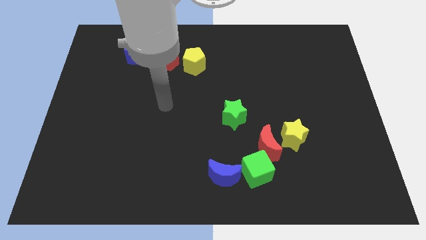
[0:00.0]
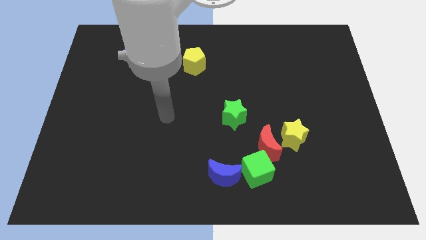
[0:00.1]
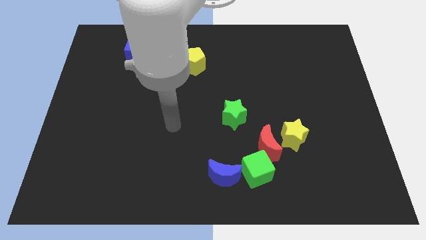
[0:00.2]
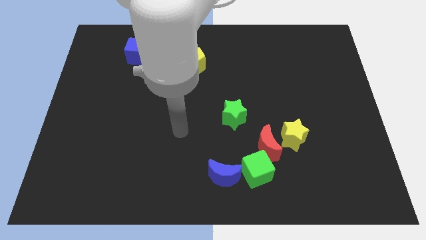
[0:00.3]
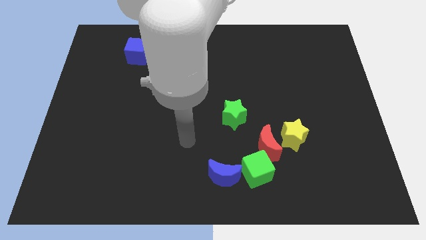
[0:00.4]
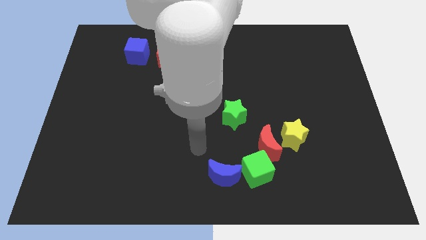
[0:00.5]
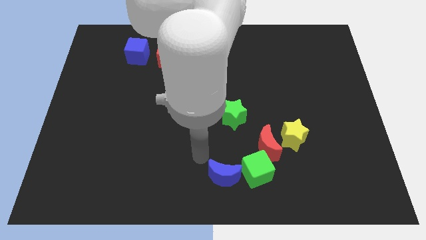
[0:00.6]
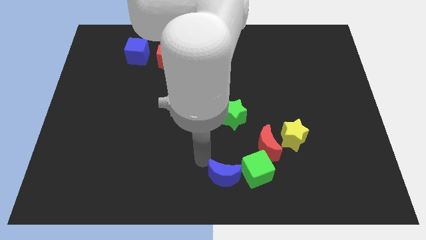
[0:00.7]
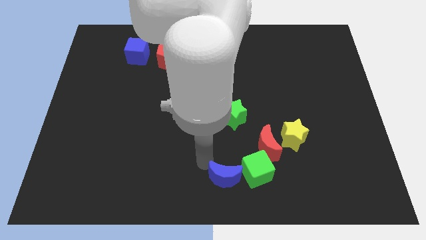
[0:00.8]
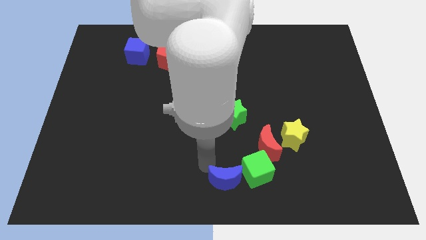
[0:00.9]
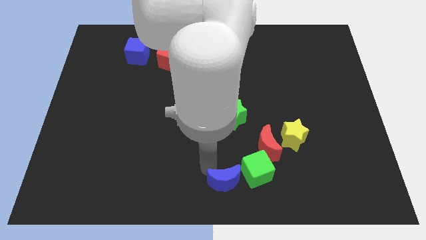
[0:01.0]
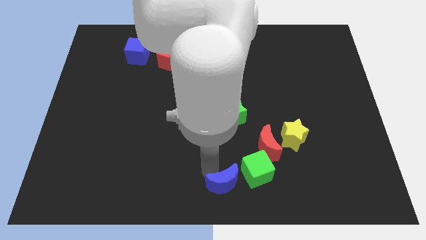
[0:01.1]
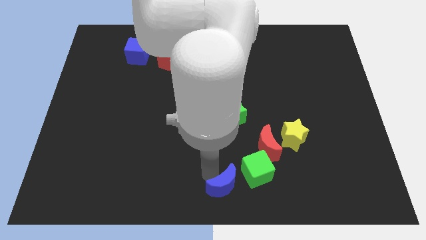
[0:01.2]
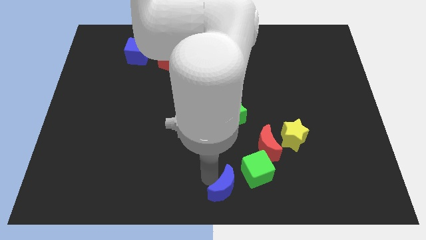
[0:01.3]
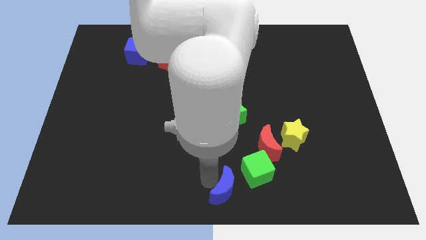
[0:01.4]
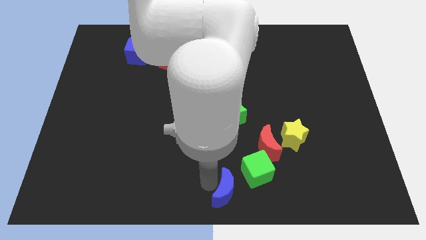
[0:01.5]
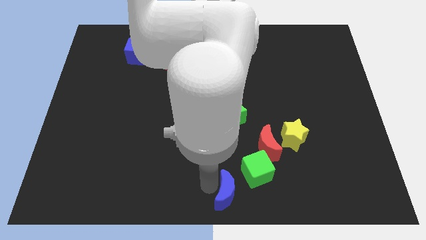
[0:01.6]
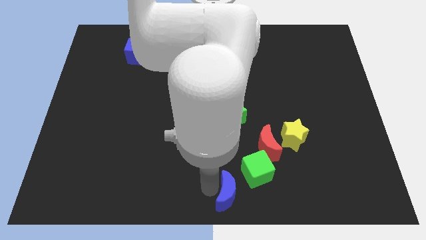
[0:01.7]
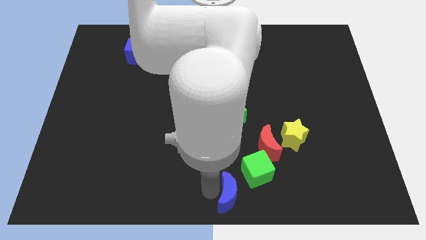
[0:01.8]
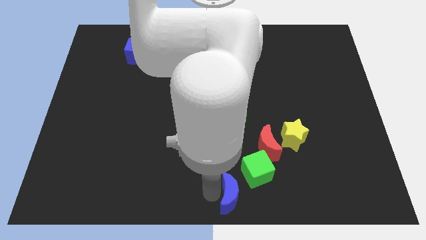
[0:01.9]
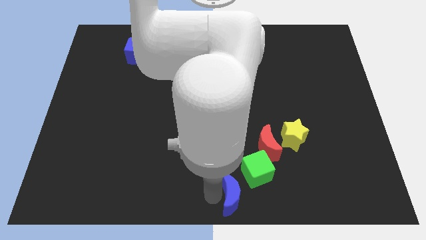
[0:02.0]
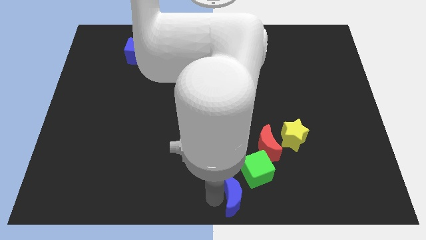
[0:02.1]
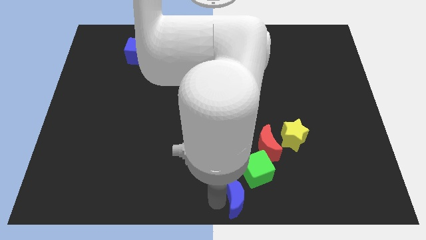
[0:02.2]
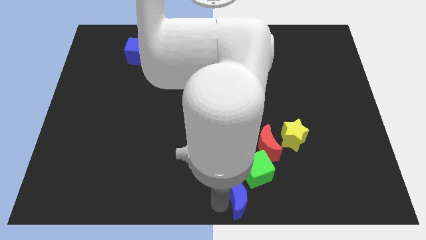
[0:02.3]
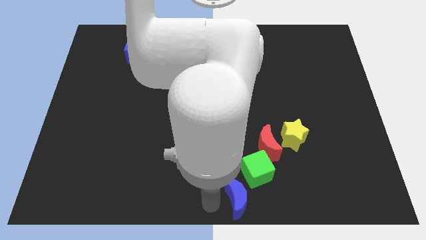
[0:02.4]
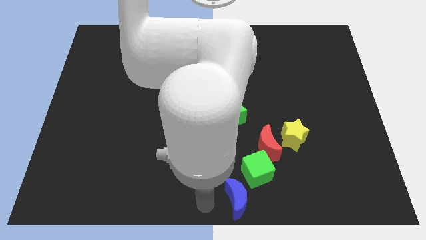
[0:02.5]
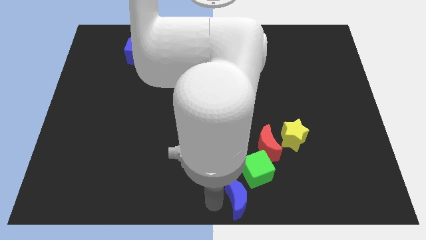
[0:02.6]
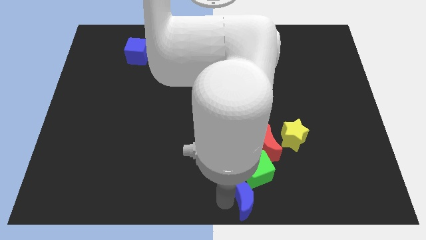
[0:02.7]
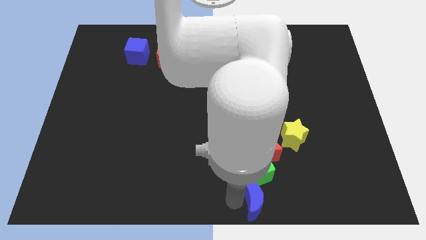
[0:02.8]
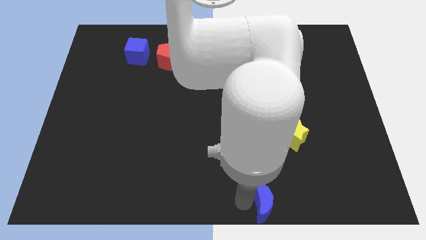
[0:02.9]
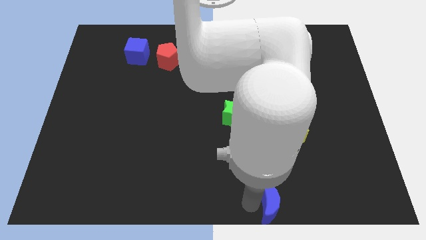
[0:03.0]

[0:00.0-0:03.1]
slightly move the blue moon to the right

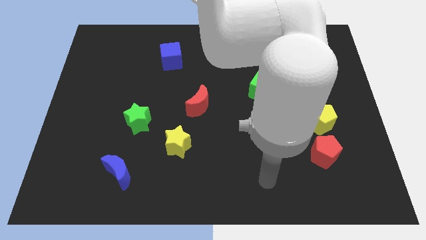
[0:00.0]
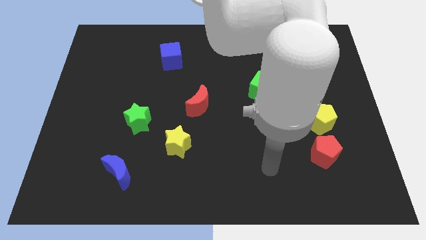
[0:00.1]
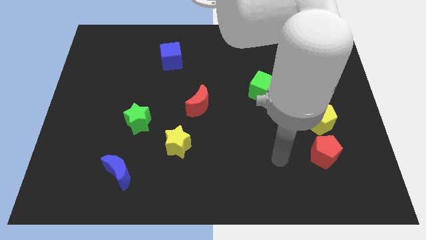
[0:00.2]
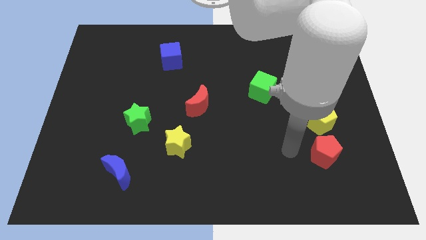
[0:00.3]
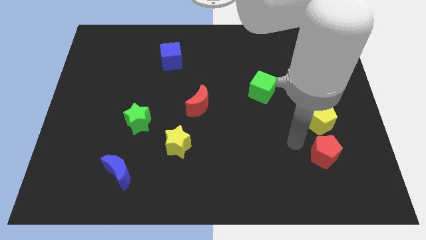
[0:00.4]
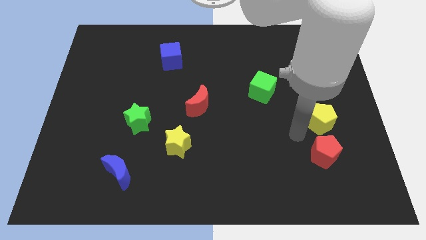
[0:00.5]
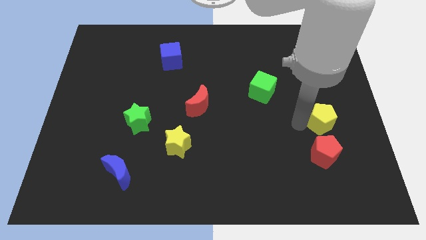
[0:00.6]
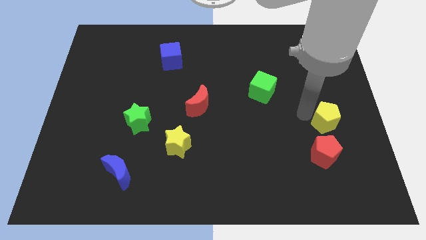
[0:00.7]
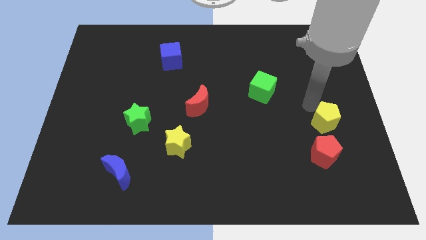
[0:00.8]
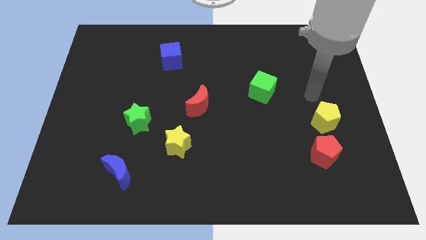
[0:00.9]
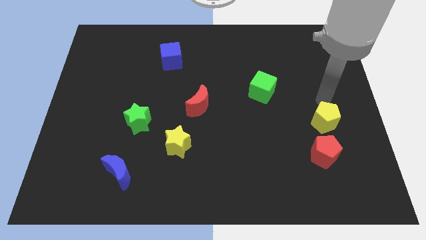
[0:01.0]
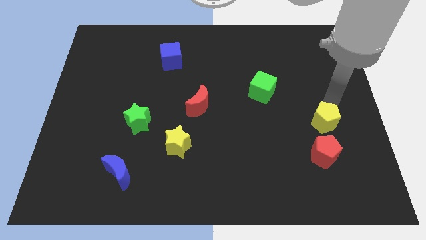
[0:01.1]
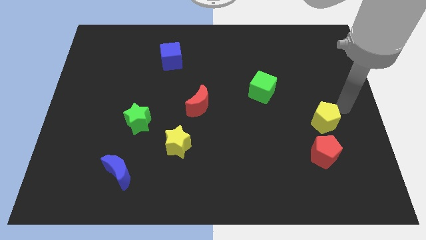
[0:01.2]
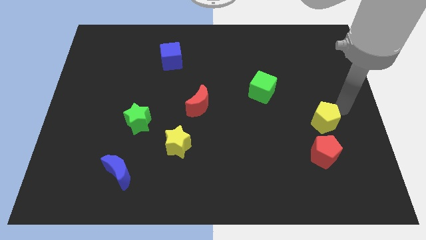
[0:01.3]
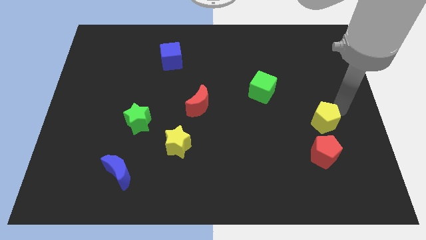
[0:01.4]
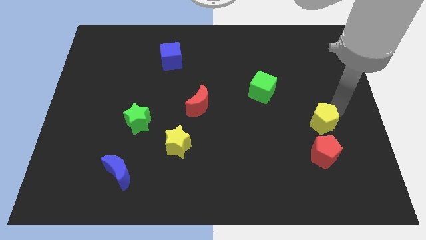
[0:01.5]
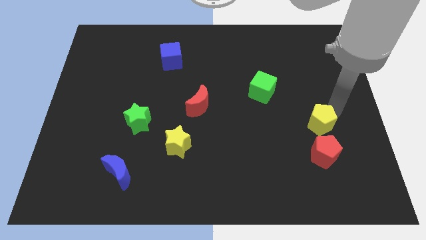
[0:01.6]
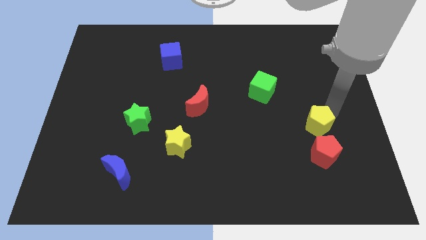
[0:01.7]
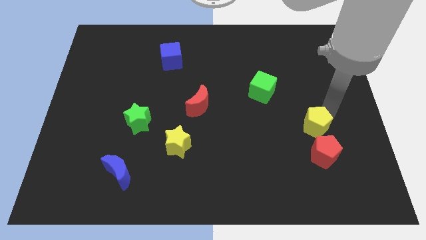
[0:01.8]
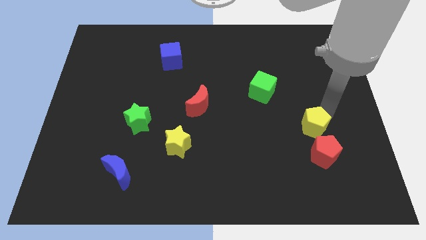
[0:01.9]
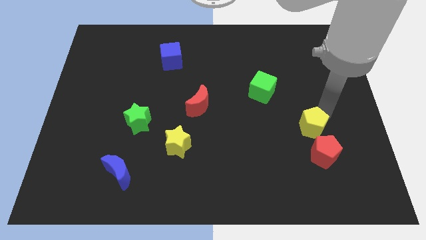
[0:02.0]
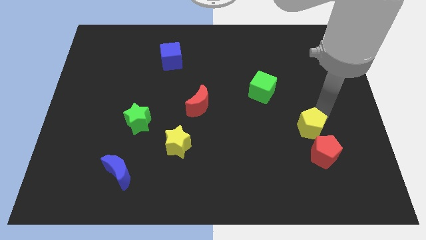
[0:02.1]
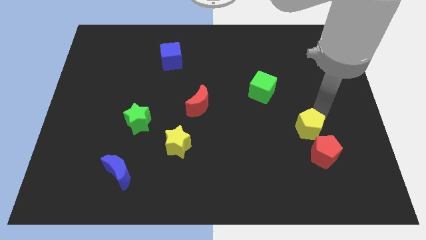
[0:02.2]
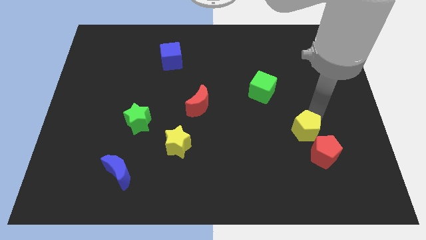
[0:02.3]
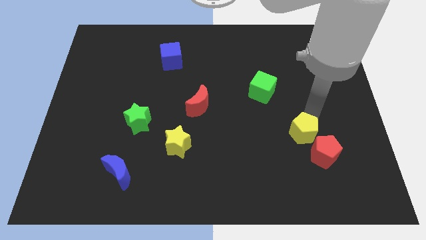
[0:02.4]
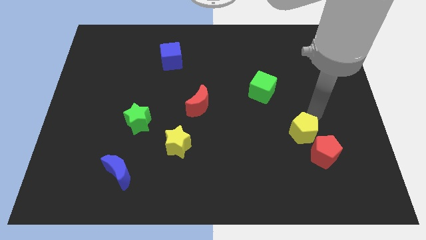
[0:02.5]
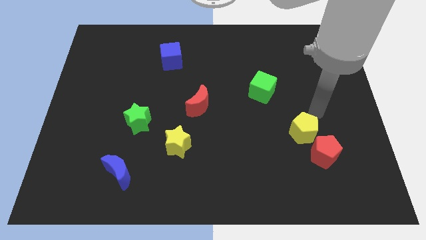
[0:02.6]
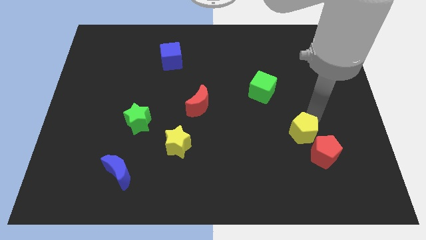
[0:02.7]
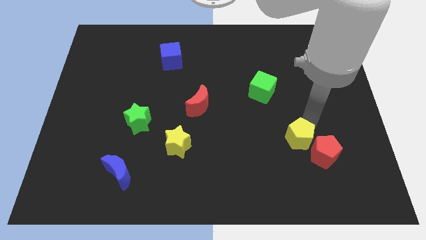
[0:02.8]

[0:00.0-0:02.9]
slightly push the yellow pentagon down and to the left

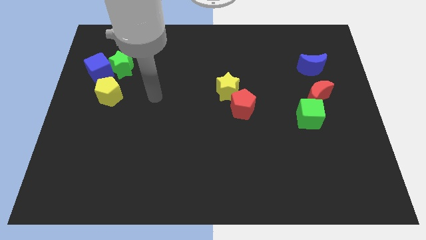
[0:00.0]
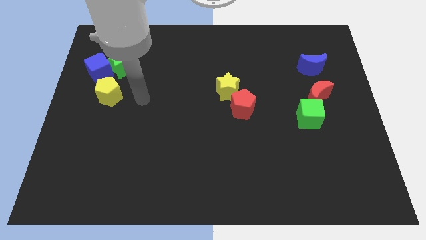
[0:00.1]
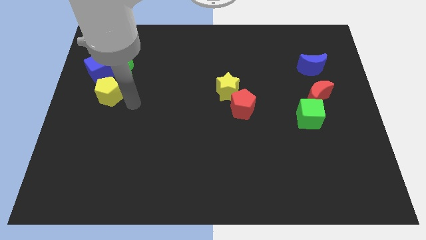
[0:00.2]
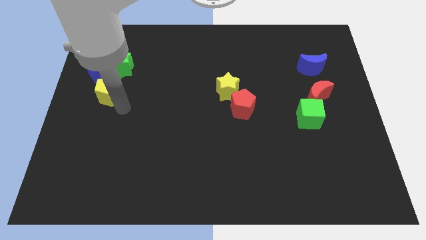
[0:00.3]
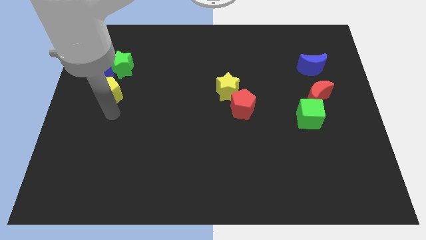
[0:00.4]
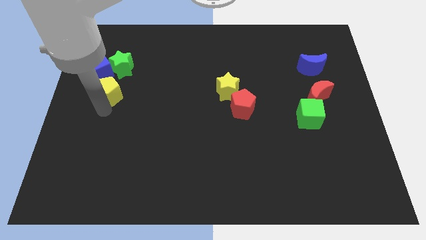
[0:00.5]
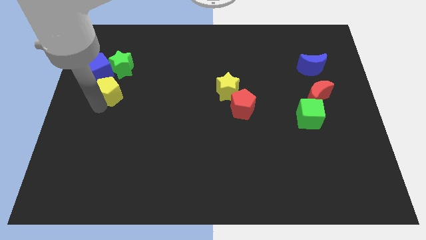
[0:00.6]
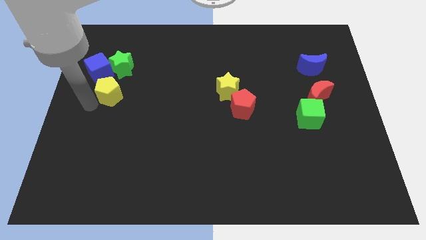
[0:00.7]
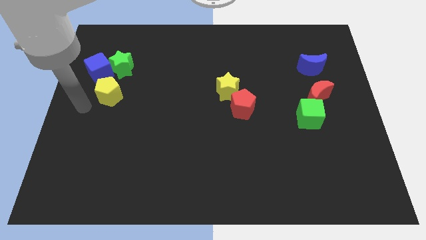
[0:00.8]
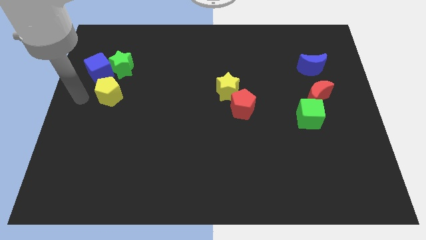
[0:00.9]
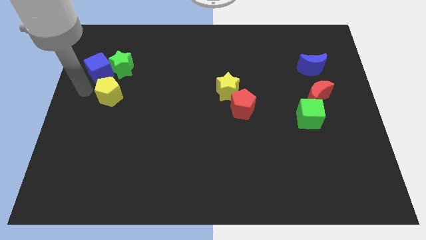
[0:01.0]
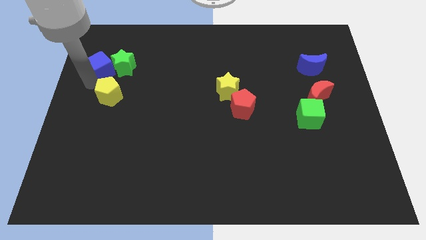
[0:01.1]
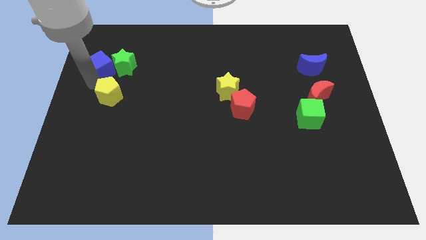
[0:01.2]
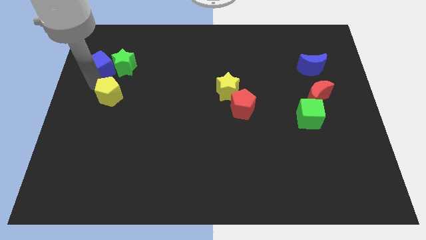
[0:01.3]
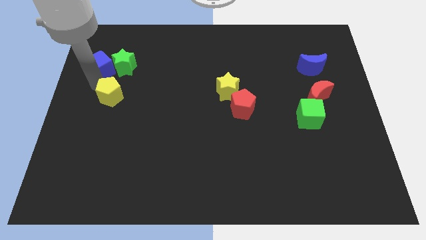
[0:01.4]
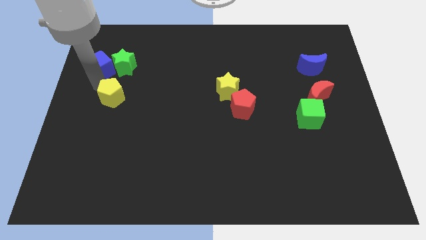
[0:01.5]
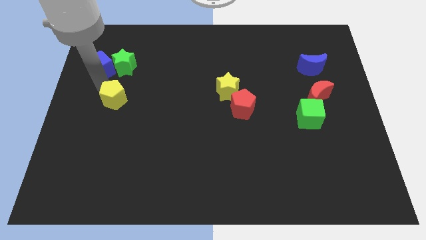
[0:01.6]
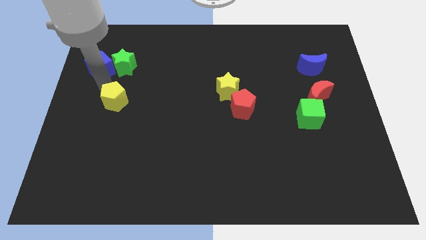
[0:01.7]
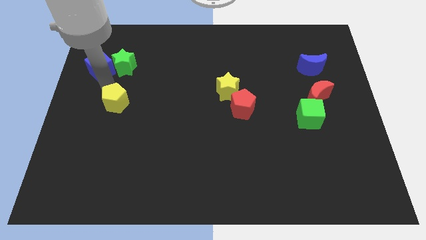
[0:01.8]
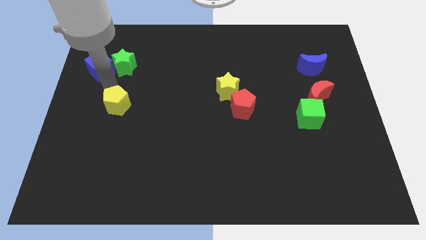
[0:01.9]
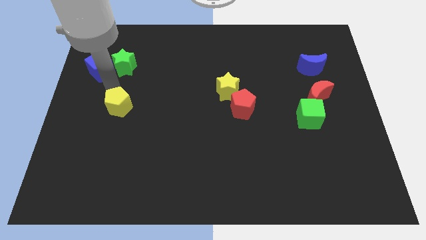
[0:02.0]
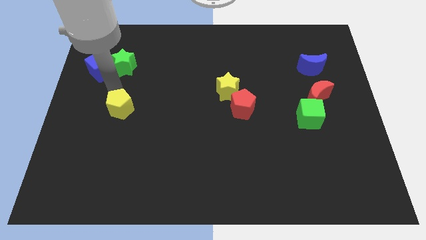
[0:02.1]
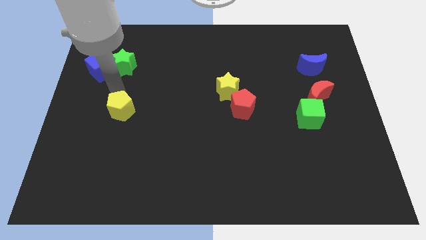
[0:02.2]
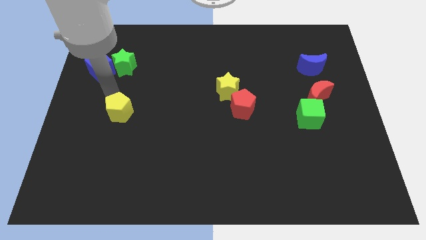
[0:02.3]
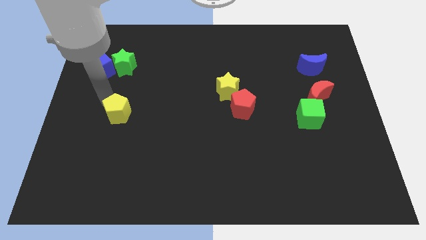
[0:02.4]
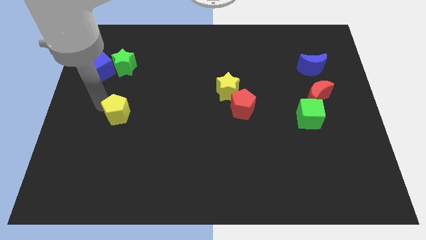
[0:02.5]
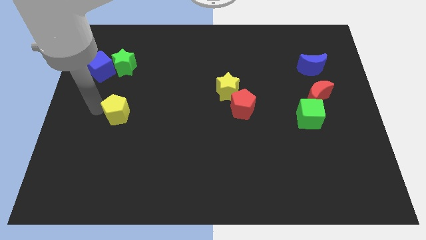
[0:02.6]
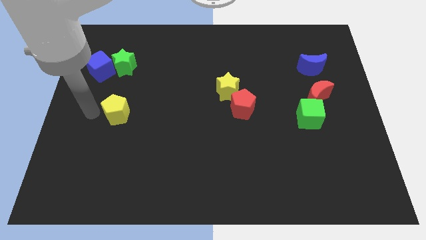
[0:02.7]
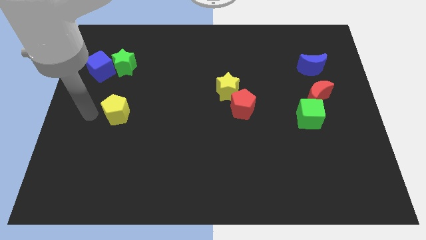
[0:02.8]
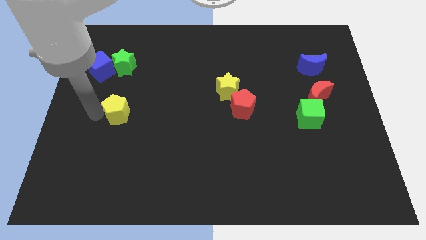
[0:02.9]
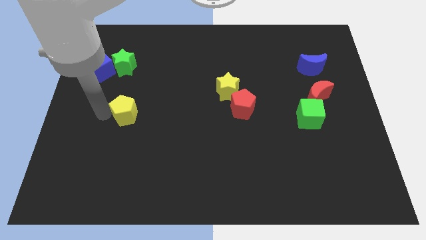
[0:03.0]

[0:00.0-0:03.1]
slightly push the yellow pentagon downwards and to the right
